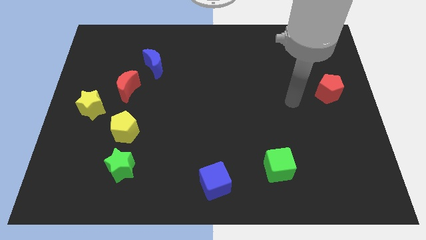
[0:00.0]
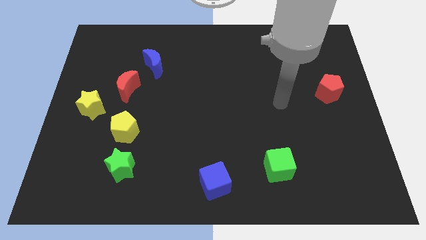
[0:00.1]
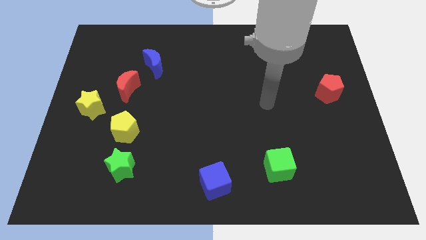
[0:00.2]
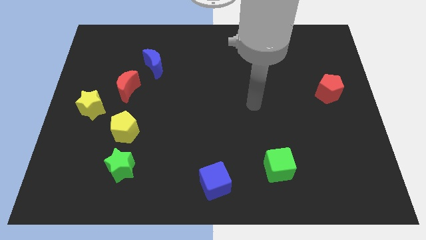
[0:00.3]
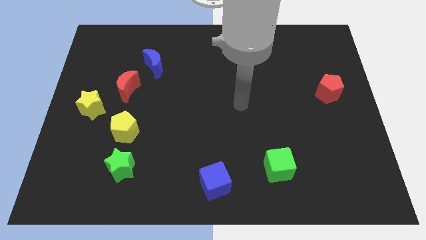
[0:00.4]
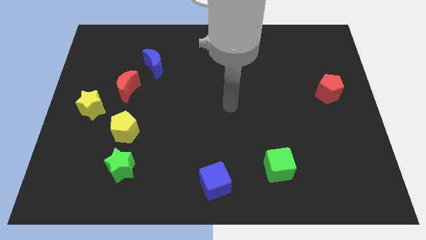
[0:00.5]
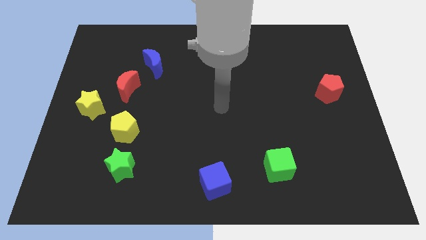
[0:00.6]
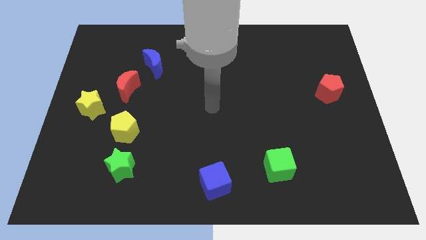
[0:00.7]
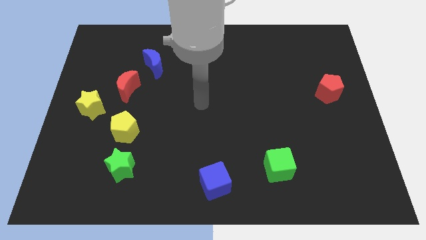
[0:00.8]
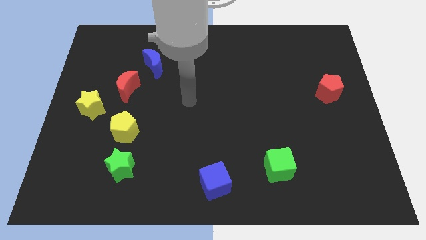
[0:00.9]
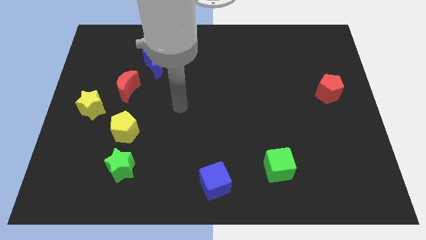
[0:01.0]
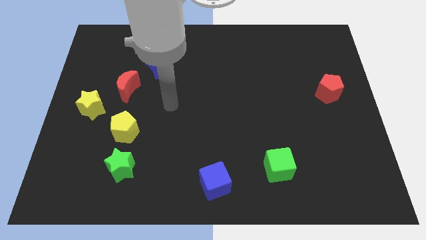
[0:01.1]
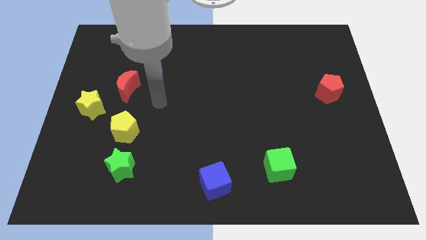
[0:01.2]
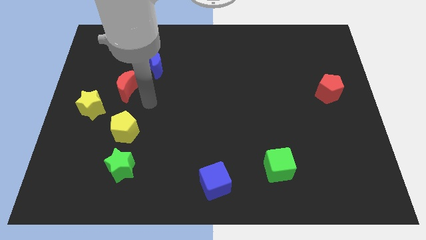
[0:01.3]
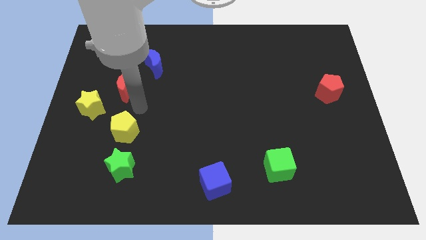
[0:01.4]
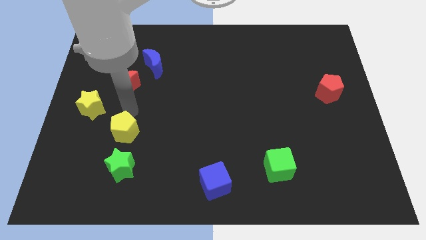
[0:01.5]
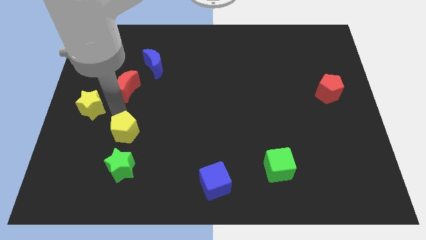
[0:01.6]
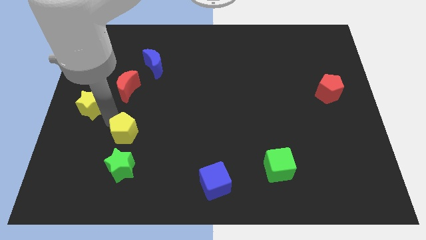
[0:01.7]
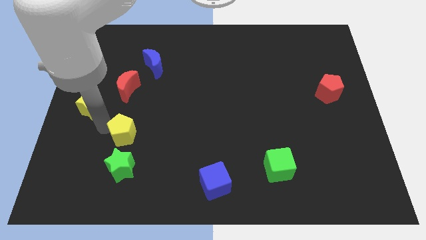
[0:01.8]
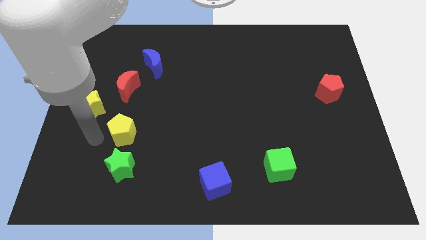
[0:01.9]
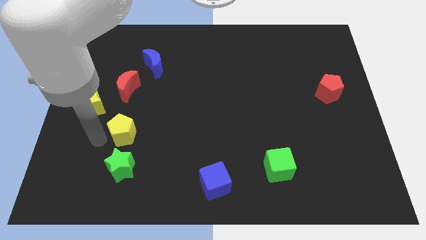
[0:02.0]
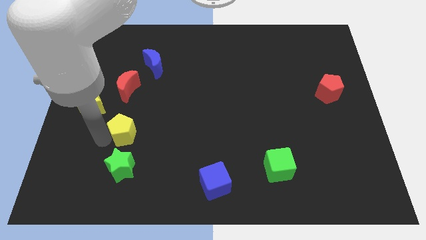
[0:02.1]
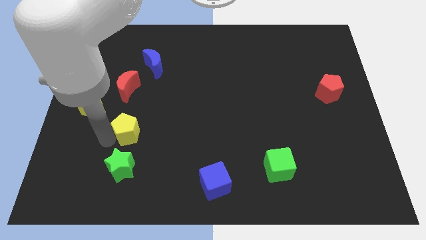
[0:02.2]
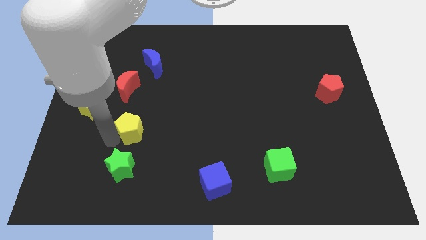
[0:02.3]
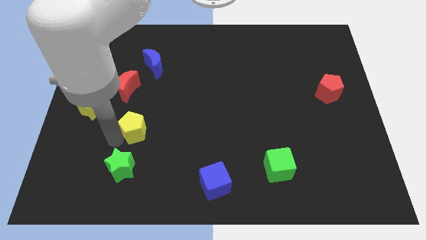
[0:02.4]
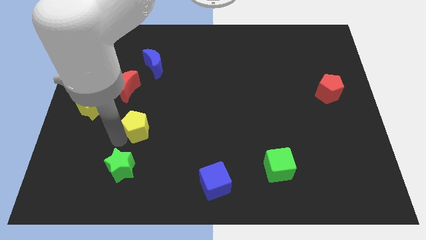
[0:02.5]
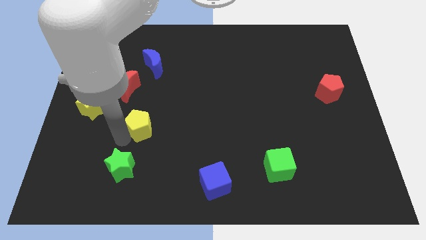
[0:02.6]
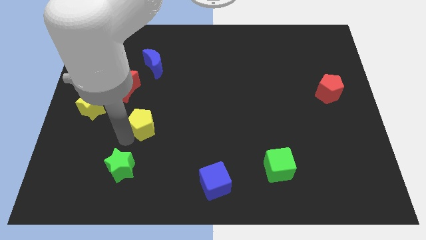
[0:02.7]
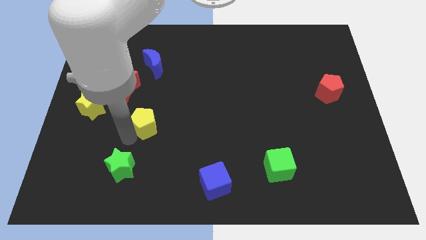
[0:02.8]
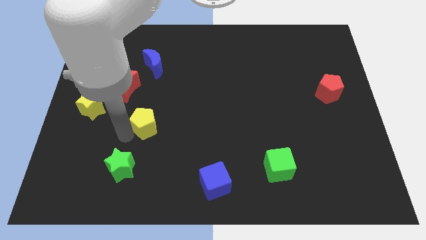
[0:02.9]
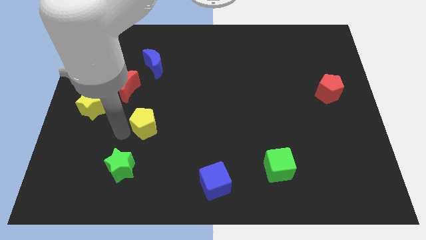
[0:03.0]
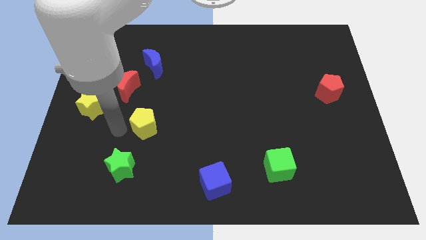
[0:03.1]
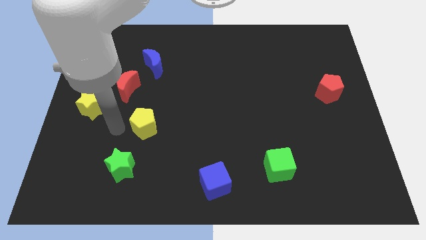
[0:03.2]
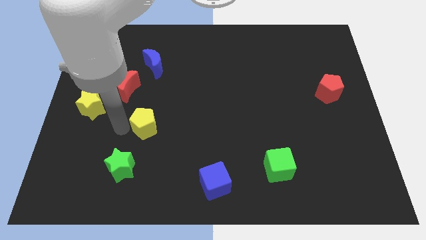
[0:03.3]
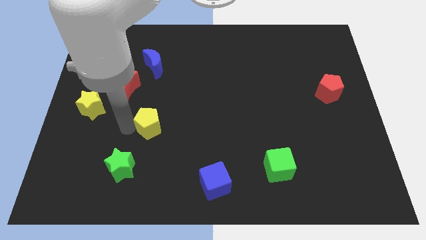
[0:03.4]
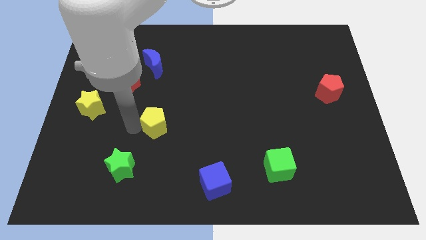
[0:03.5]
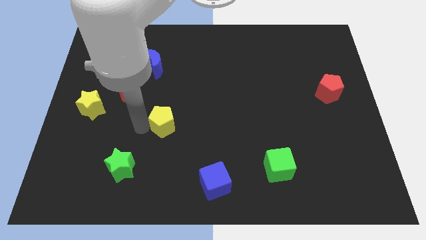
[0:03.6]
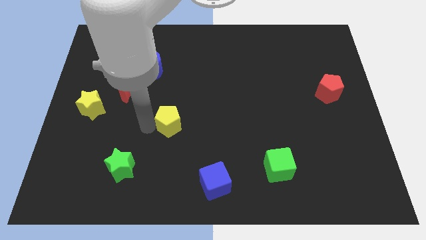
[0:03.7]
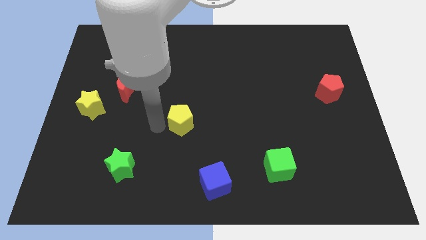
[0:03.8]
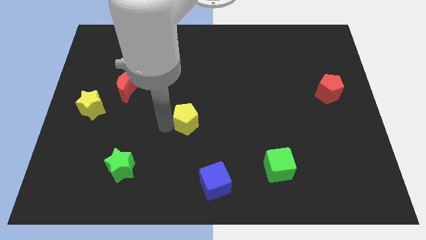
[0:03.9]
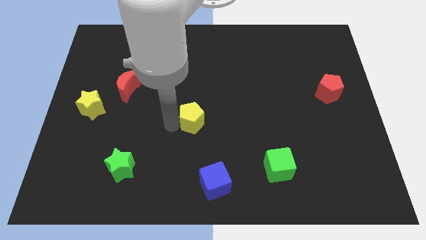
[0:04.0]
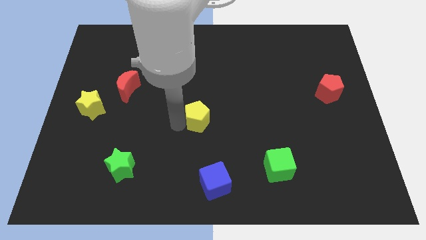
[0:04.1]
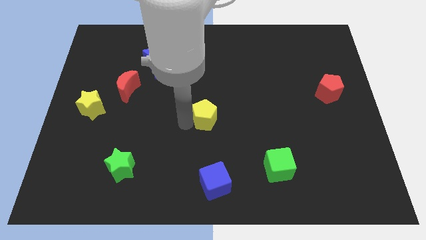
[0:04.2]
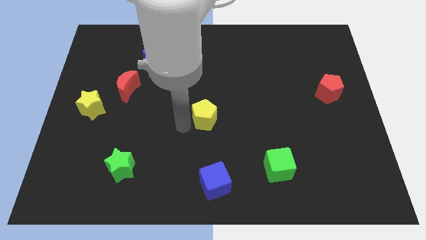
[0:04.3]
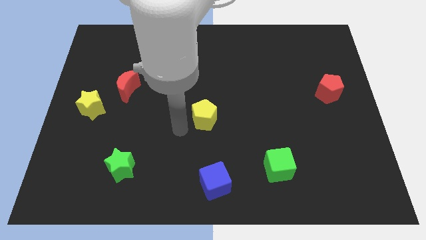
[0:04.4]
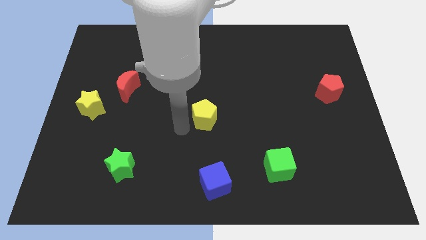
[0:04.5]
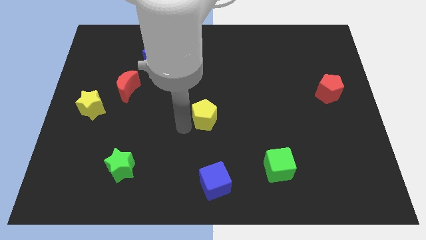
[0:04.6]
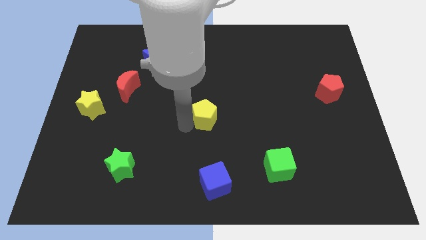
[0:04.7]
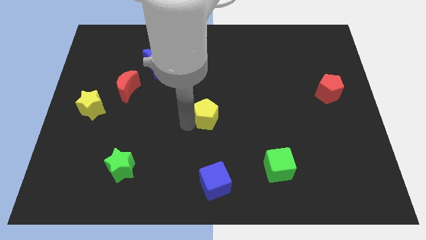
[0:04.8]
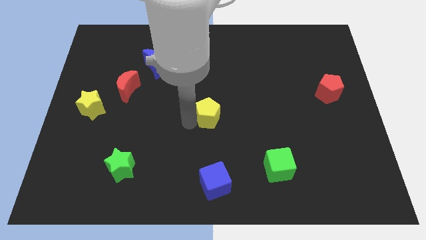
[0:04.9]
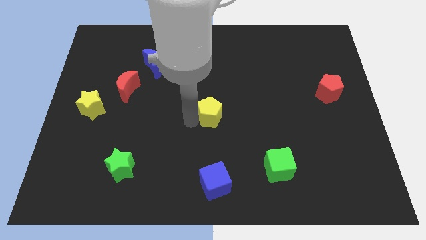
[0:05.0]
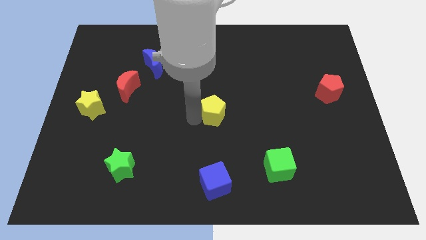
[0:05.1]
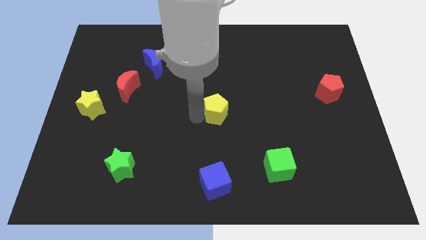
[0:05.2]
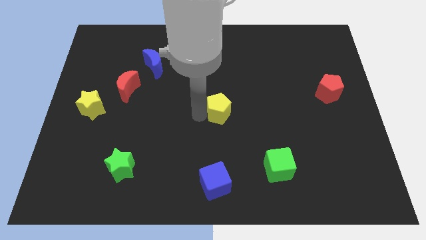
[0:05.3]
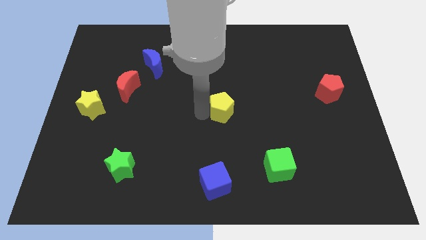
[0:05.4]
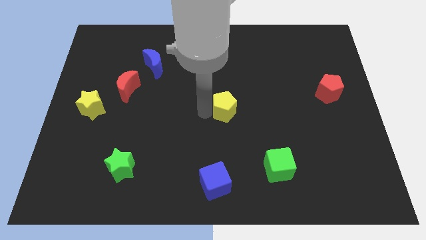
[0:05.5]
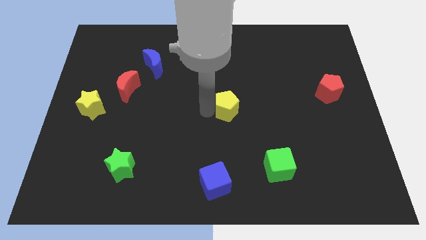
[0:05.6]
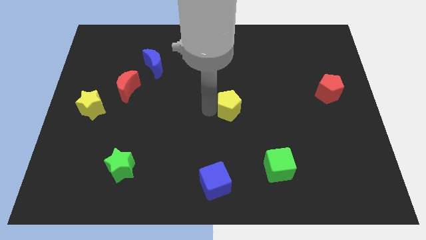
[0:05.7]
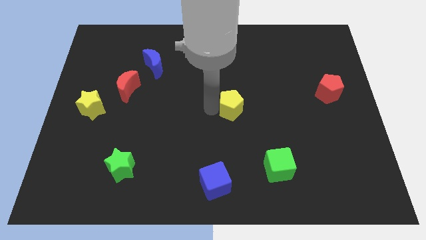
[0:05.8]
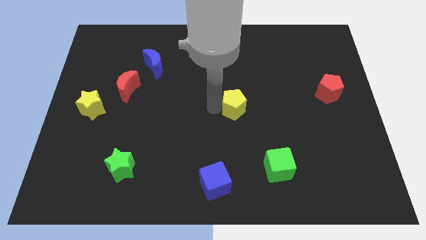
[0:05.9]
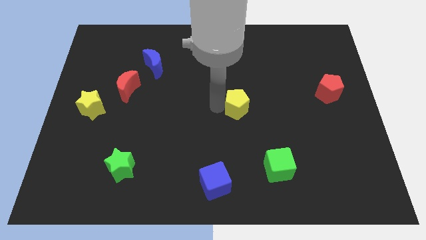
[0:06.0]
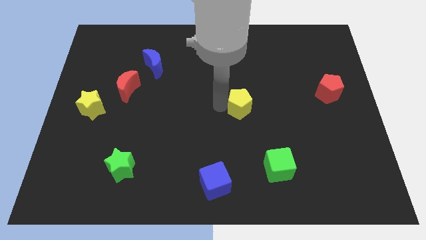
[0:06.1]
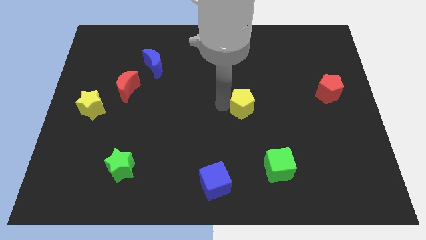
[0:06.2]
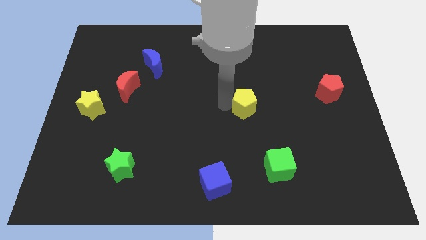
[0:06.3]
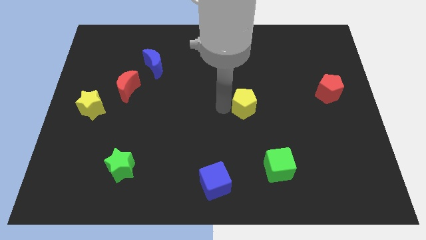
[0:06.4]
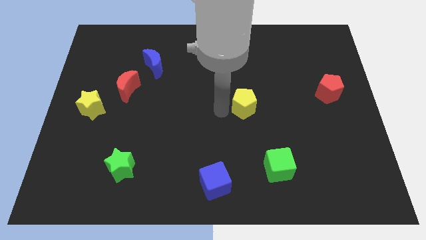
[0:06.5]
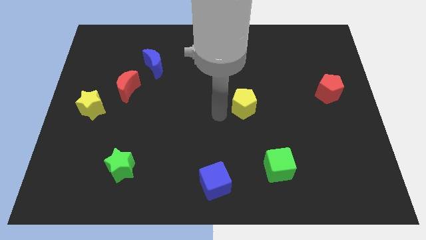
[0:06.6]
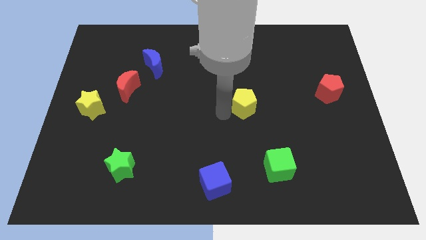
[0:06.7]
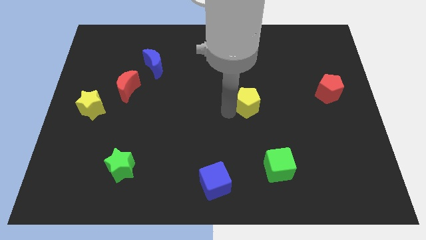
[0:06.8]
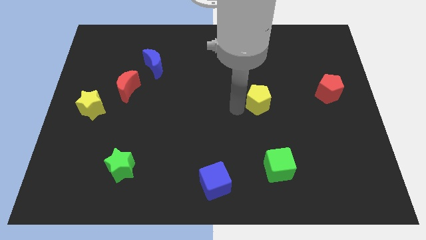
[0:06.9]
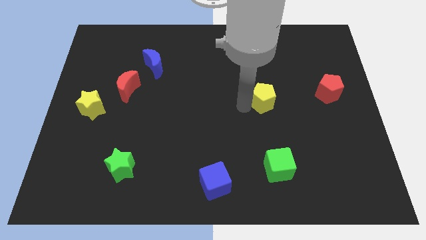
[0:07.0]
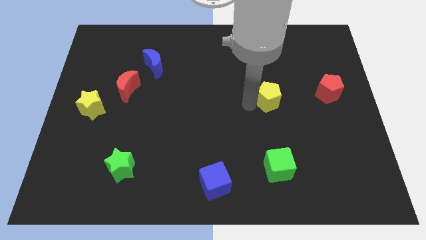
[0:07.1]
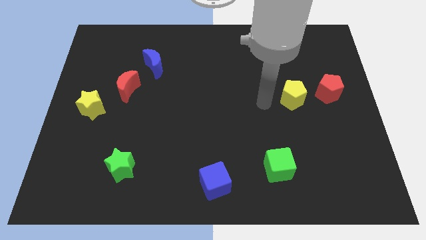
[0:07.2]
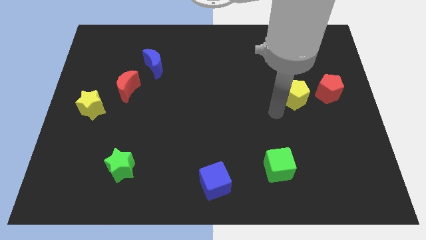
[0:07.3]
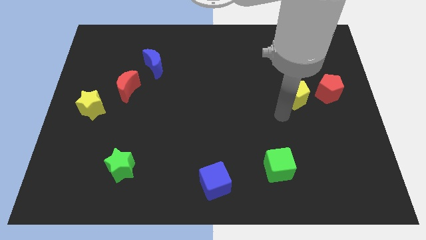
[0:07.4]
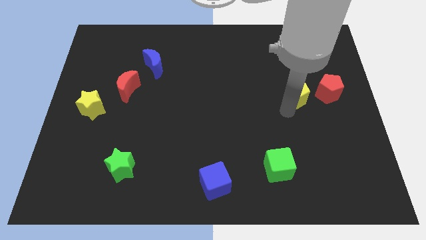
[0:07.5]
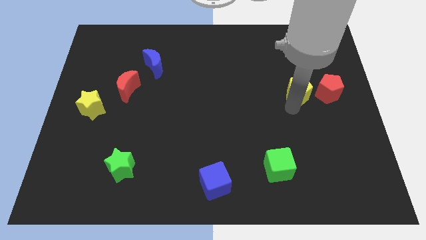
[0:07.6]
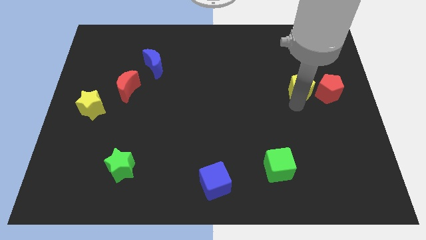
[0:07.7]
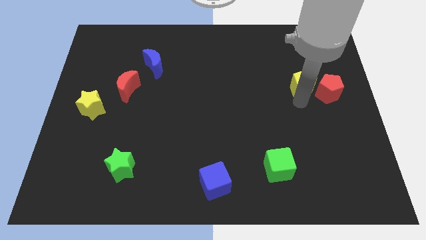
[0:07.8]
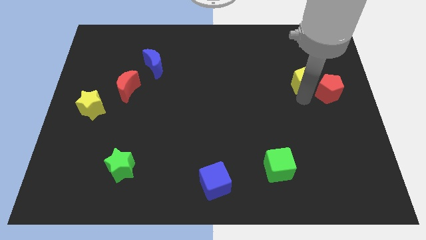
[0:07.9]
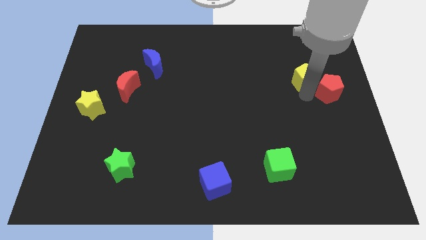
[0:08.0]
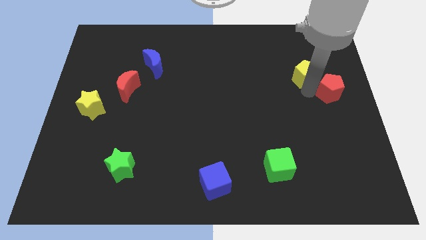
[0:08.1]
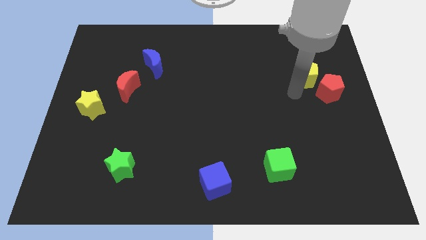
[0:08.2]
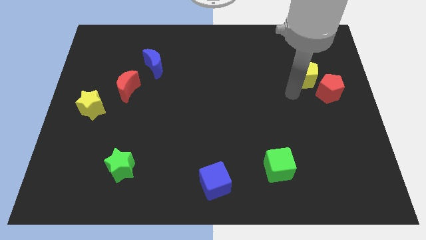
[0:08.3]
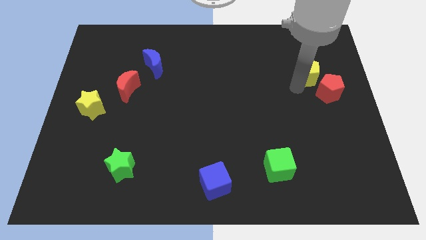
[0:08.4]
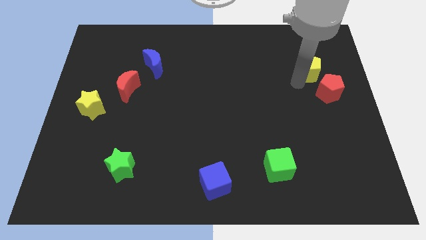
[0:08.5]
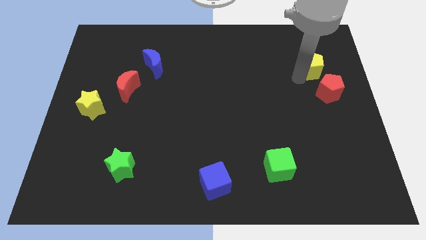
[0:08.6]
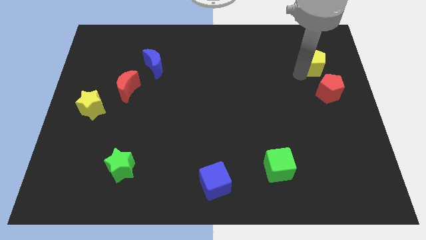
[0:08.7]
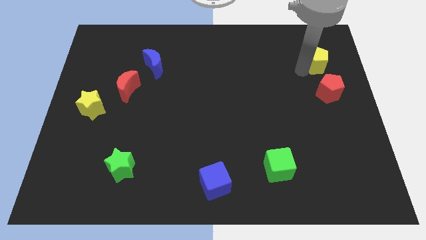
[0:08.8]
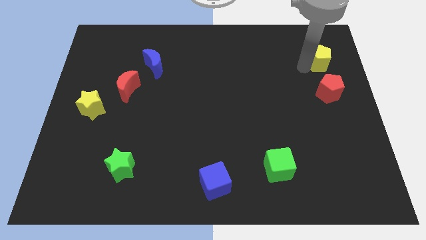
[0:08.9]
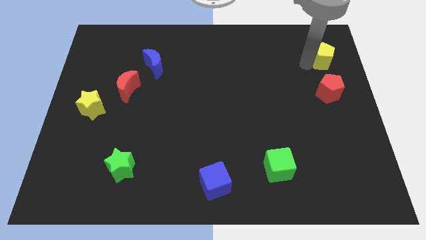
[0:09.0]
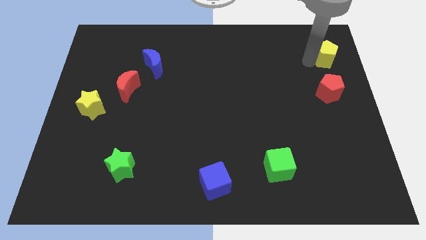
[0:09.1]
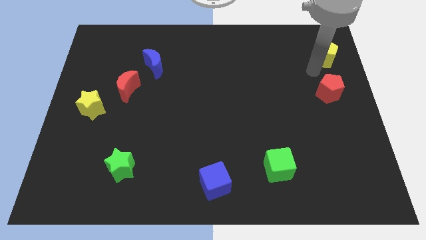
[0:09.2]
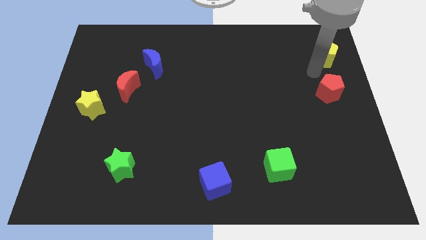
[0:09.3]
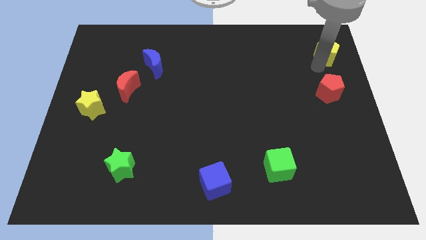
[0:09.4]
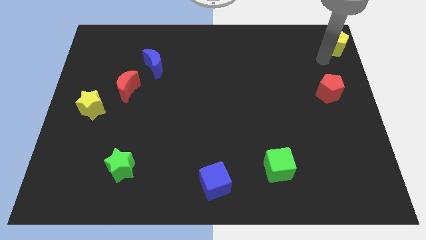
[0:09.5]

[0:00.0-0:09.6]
move the yellow pentagon to the top right corner
